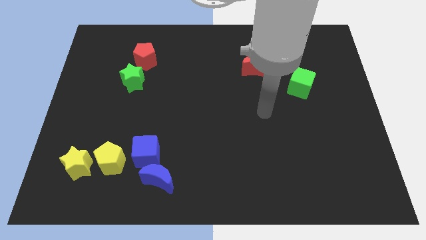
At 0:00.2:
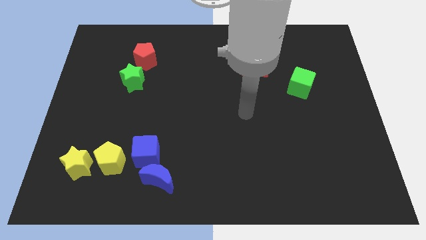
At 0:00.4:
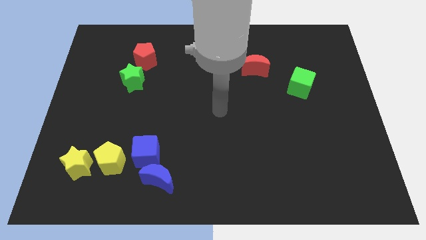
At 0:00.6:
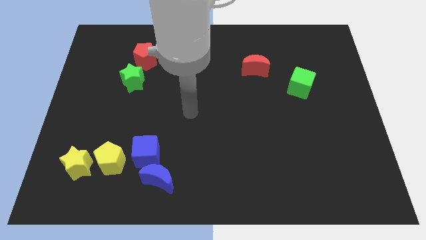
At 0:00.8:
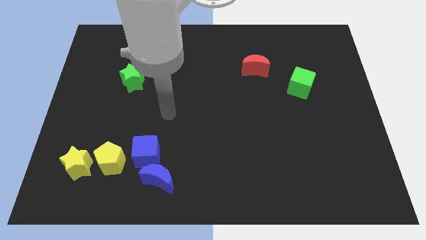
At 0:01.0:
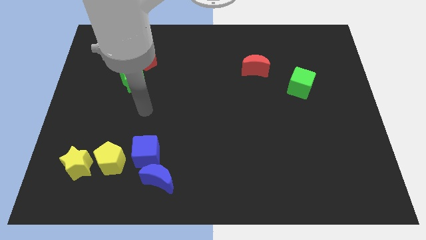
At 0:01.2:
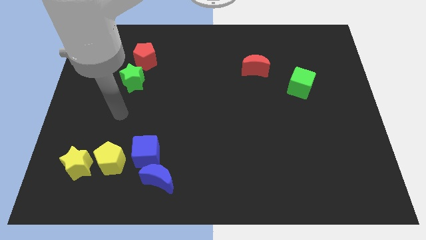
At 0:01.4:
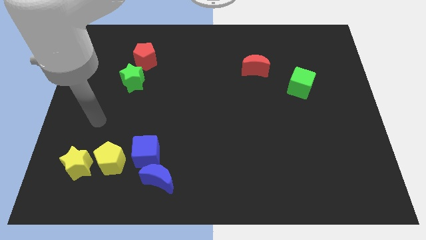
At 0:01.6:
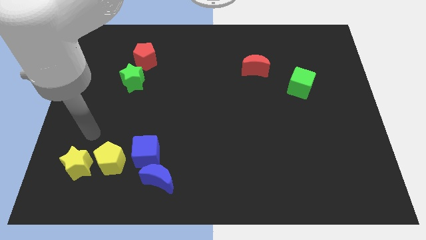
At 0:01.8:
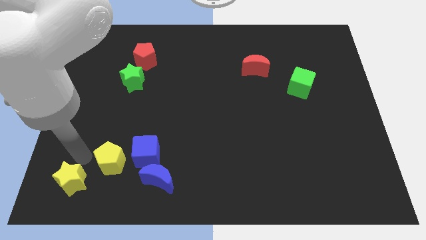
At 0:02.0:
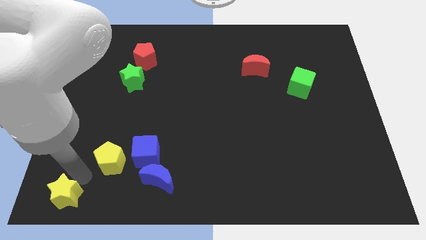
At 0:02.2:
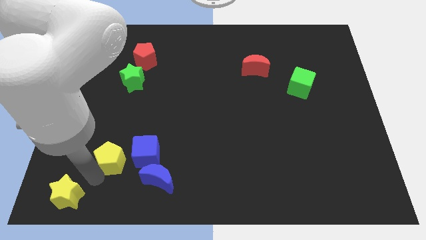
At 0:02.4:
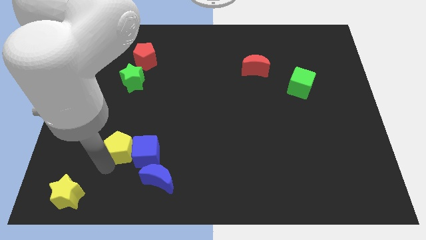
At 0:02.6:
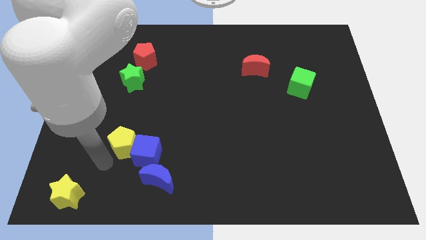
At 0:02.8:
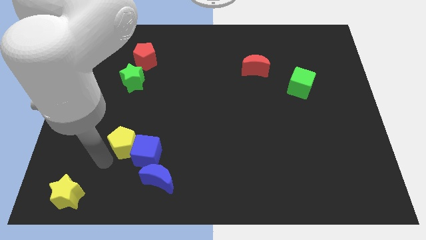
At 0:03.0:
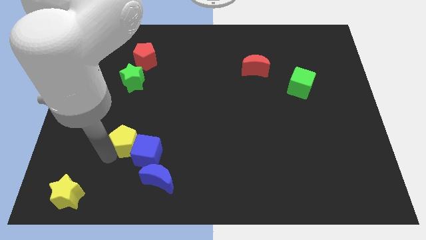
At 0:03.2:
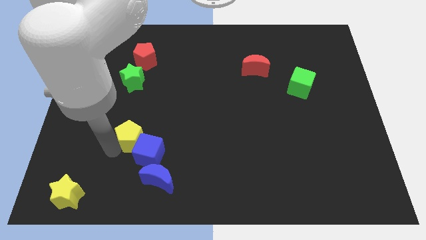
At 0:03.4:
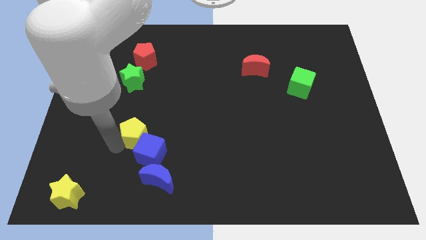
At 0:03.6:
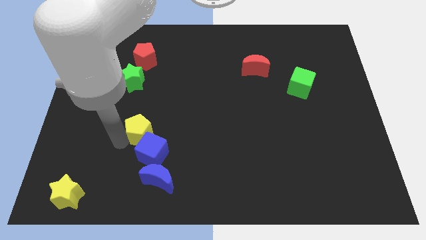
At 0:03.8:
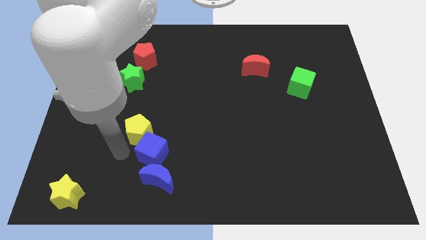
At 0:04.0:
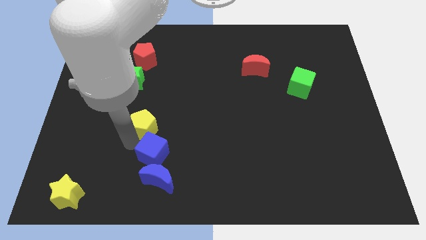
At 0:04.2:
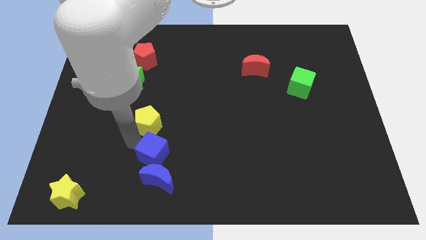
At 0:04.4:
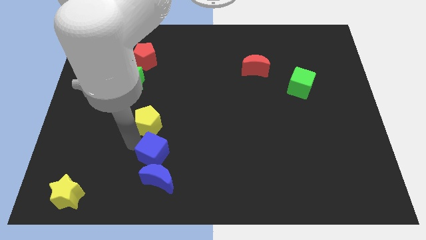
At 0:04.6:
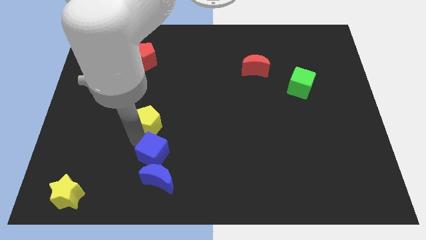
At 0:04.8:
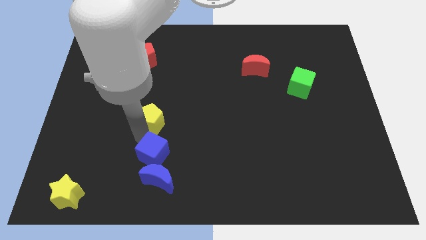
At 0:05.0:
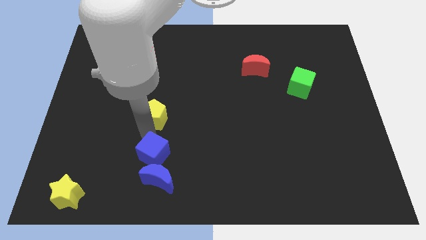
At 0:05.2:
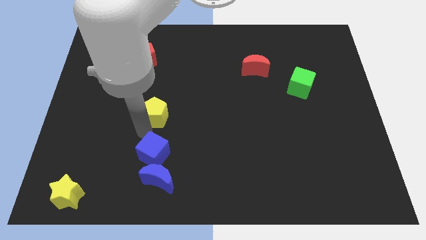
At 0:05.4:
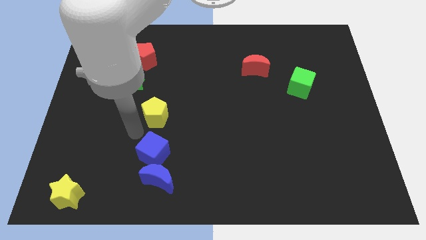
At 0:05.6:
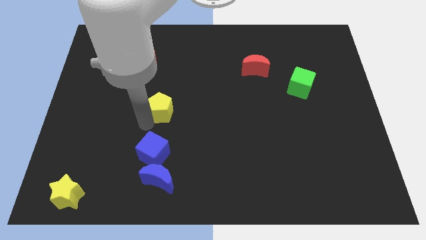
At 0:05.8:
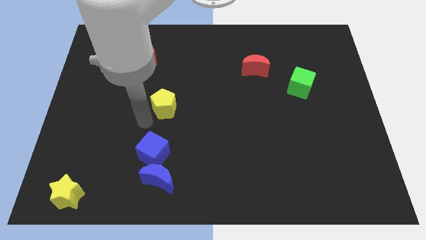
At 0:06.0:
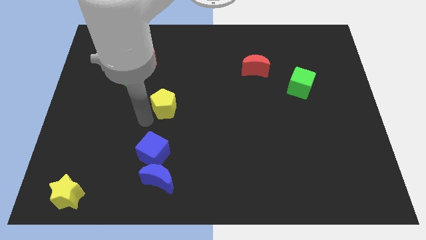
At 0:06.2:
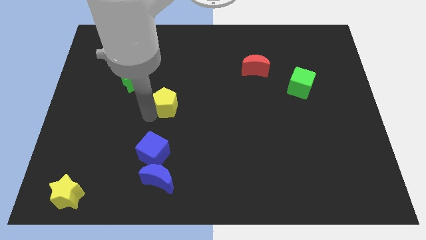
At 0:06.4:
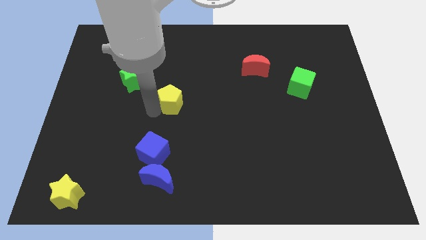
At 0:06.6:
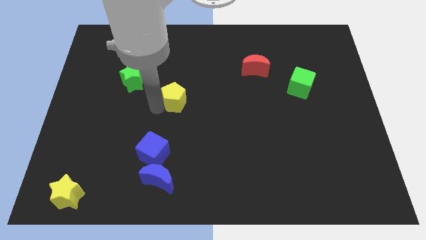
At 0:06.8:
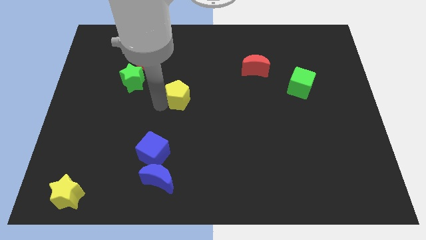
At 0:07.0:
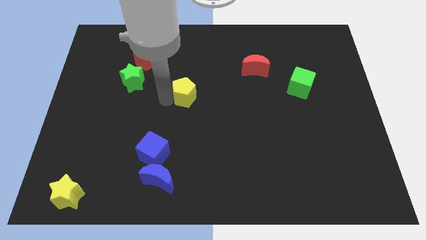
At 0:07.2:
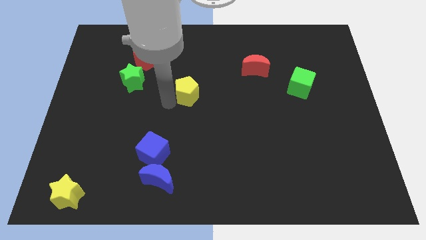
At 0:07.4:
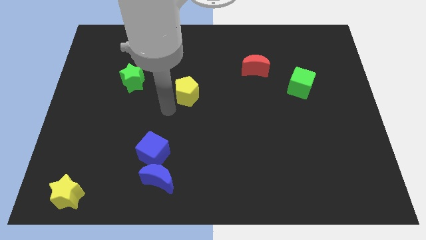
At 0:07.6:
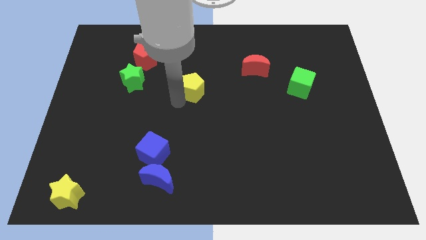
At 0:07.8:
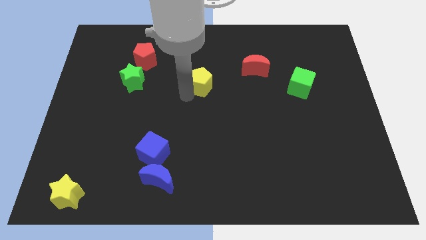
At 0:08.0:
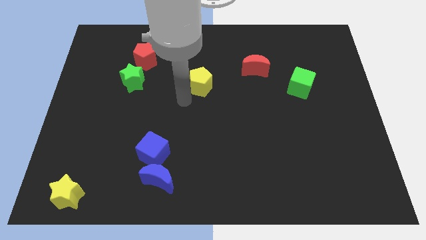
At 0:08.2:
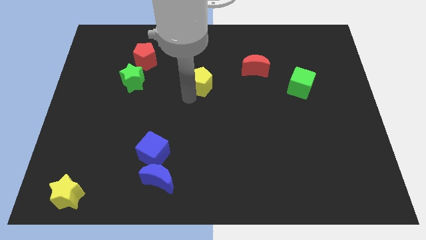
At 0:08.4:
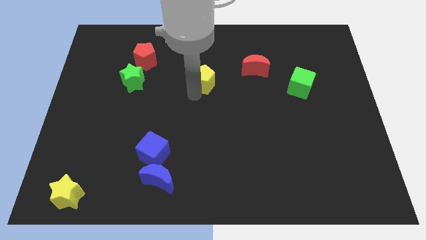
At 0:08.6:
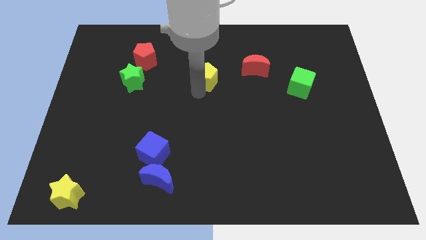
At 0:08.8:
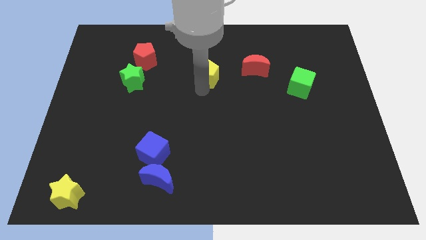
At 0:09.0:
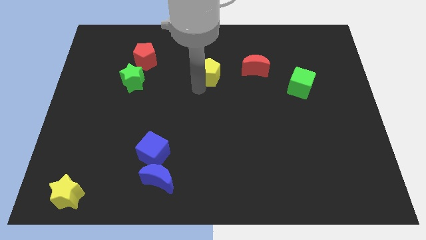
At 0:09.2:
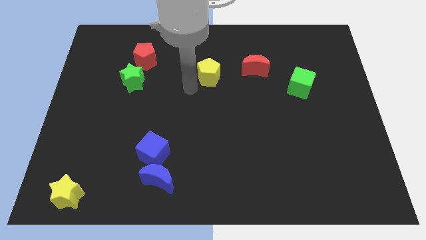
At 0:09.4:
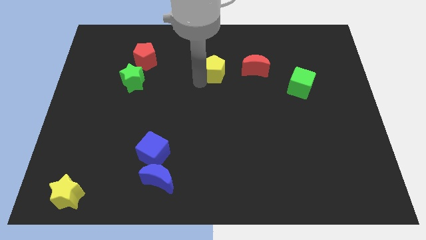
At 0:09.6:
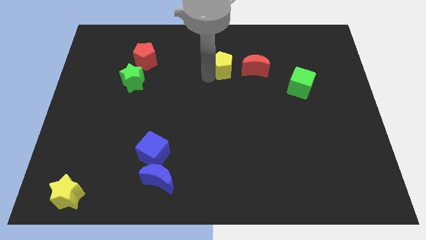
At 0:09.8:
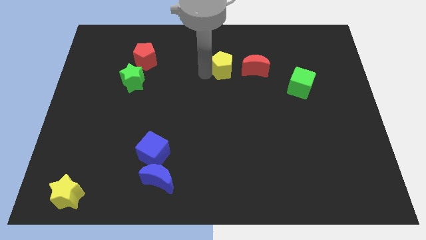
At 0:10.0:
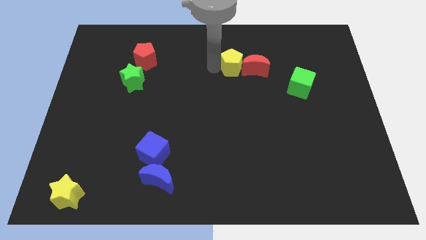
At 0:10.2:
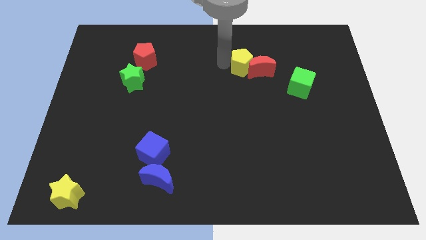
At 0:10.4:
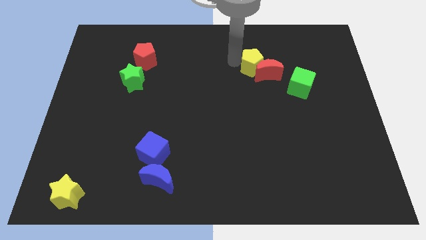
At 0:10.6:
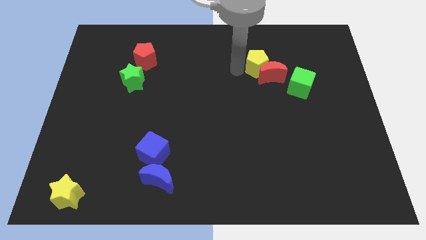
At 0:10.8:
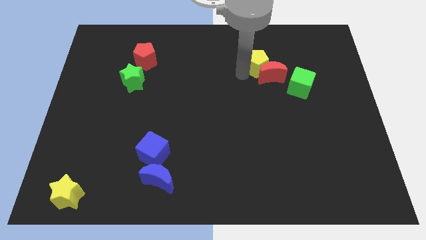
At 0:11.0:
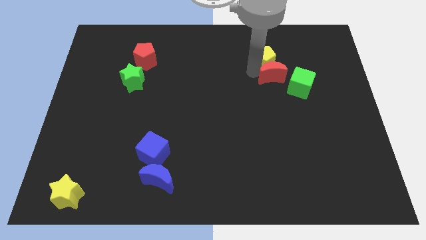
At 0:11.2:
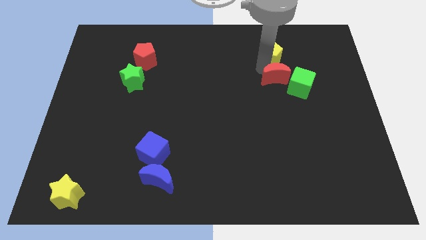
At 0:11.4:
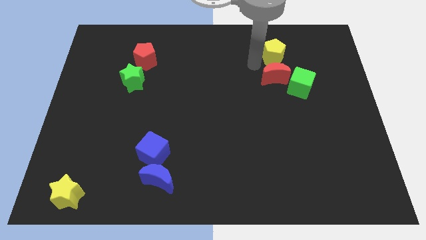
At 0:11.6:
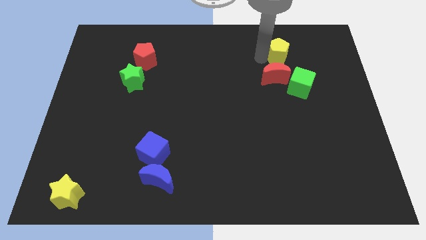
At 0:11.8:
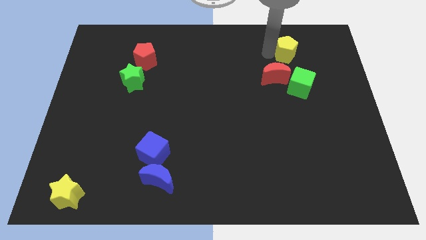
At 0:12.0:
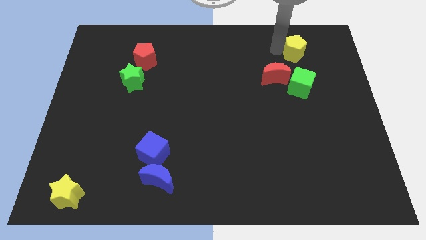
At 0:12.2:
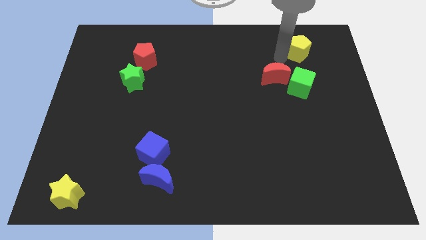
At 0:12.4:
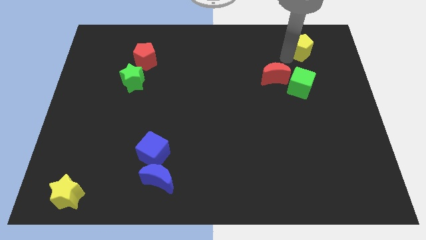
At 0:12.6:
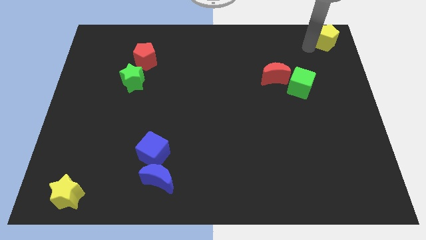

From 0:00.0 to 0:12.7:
push the yellow pentagon to the upper right corner

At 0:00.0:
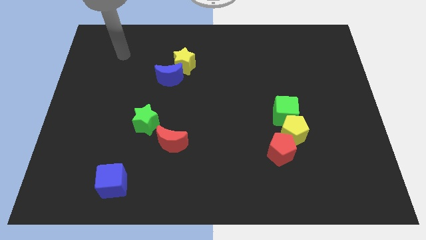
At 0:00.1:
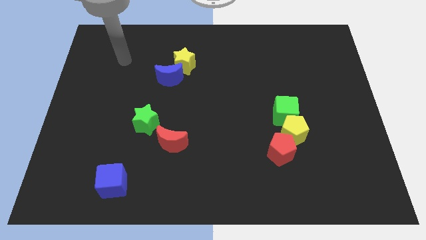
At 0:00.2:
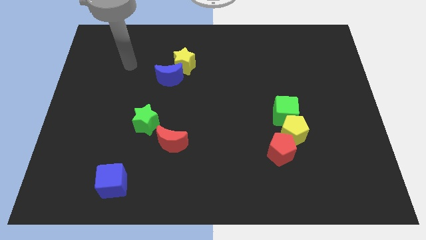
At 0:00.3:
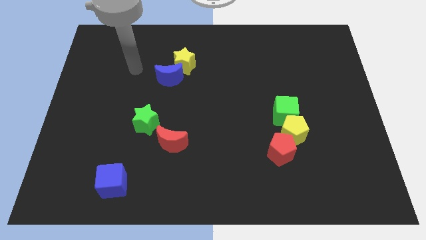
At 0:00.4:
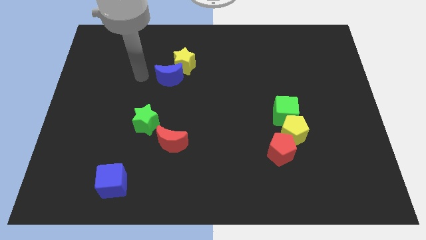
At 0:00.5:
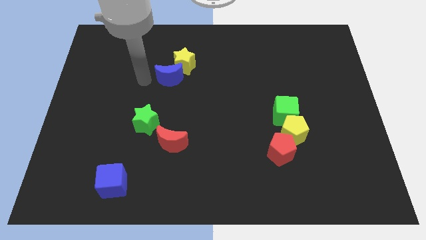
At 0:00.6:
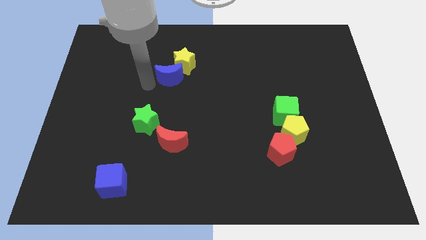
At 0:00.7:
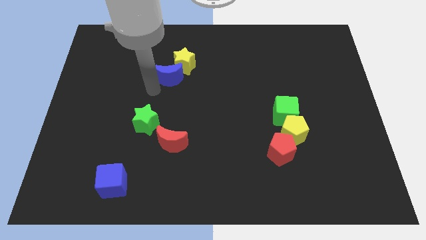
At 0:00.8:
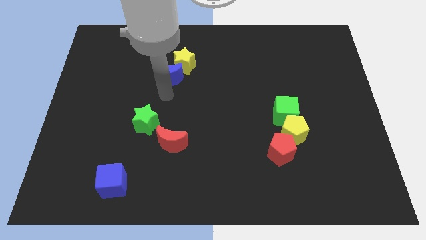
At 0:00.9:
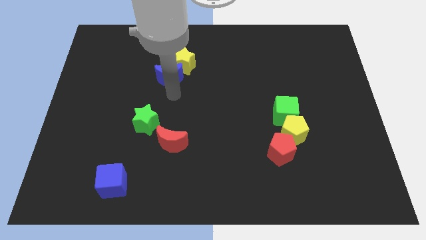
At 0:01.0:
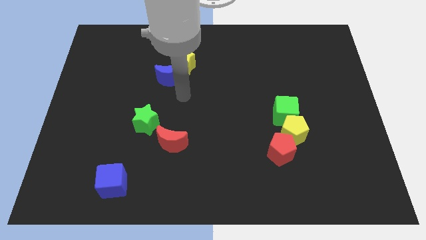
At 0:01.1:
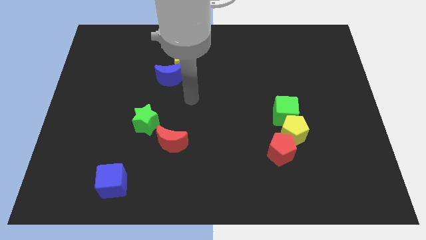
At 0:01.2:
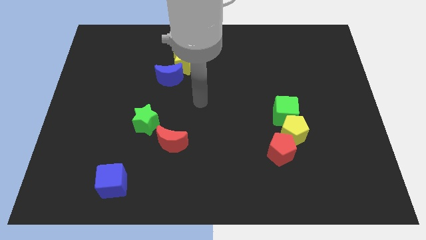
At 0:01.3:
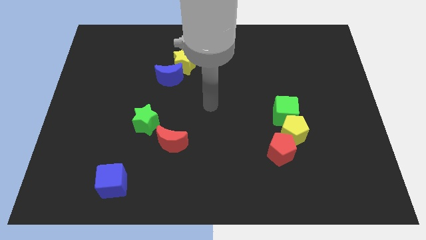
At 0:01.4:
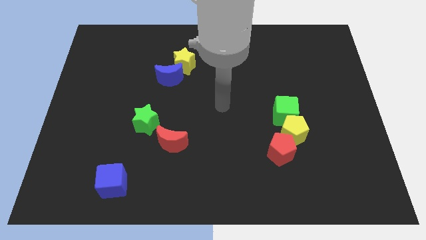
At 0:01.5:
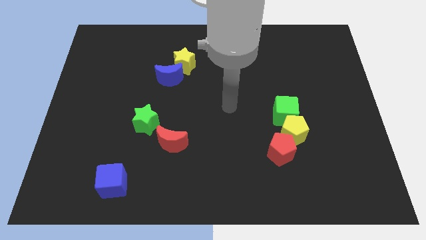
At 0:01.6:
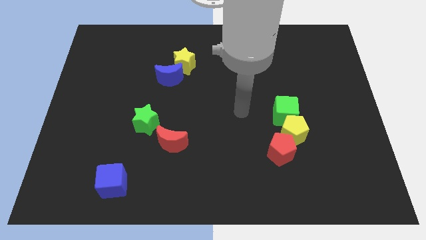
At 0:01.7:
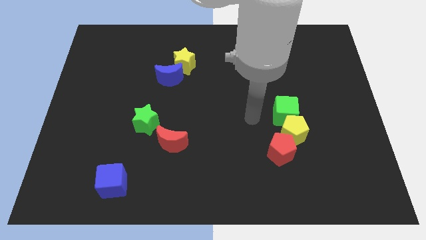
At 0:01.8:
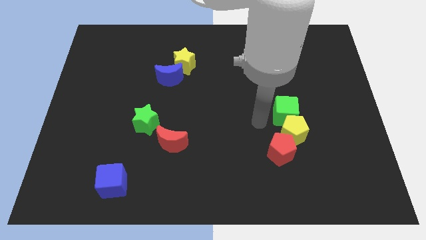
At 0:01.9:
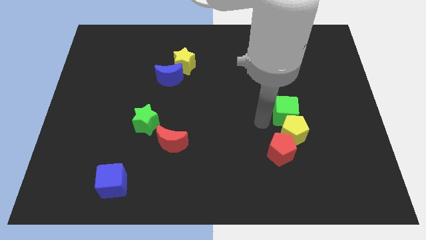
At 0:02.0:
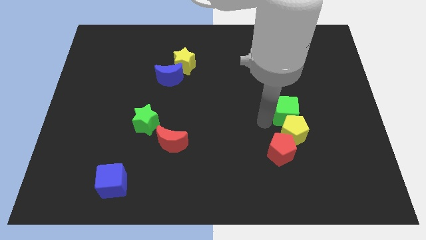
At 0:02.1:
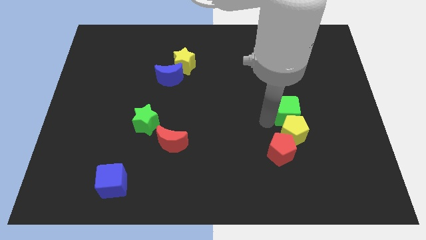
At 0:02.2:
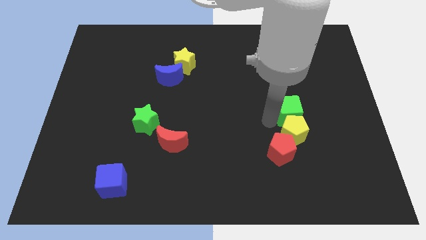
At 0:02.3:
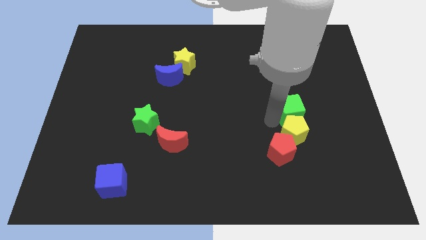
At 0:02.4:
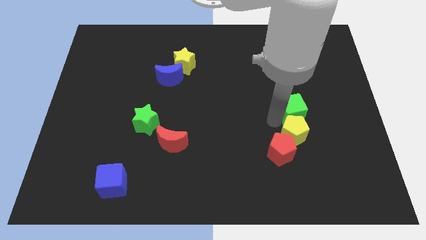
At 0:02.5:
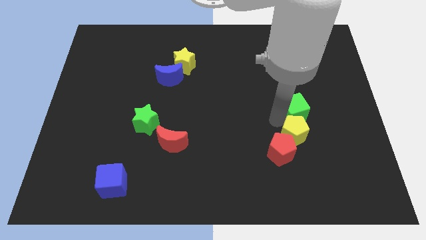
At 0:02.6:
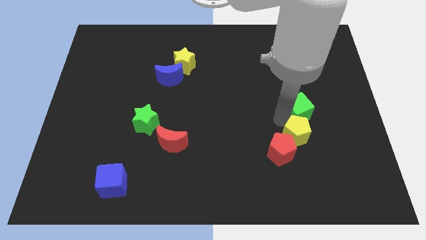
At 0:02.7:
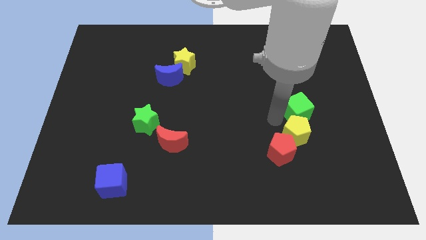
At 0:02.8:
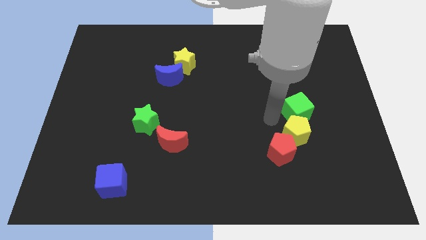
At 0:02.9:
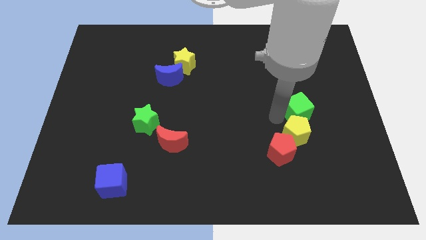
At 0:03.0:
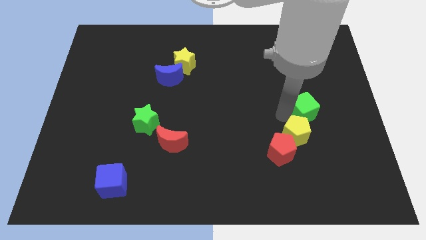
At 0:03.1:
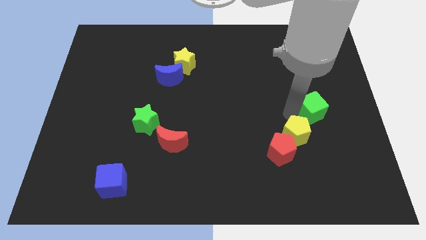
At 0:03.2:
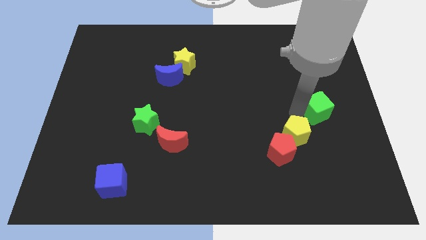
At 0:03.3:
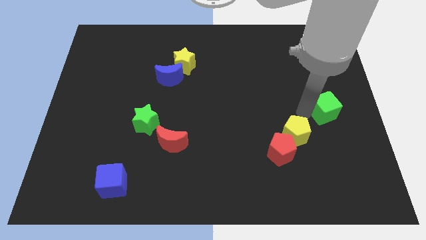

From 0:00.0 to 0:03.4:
slide the green cube to the right side
